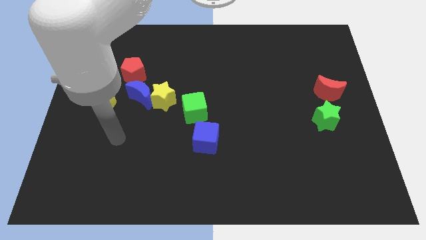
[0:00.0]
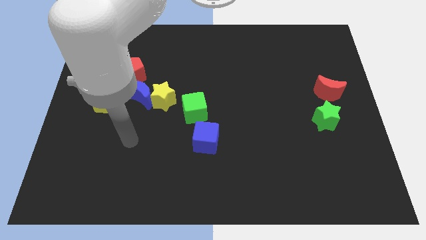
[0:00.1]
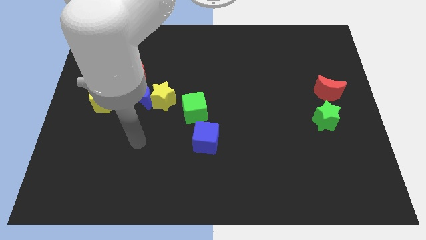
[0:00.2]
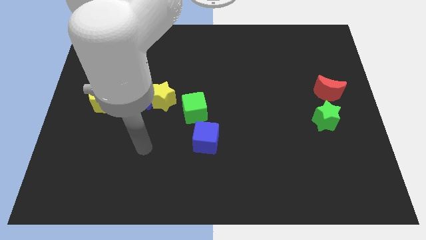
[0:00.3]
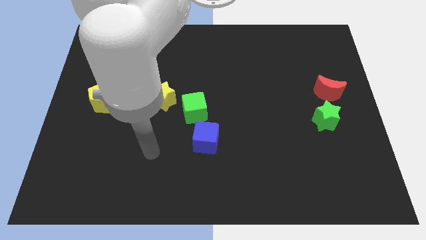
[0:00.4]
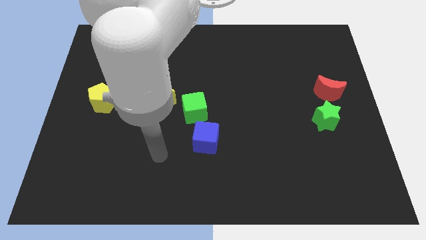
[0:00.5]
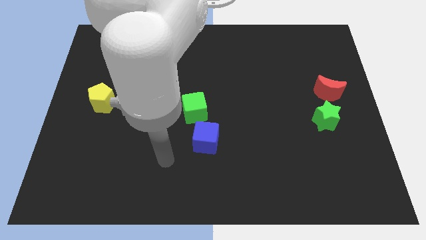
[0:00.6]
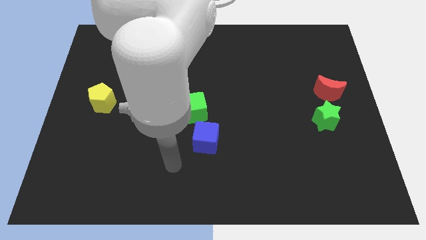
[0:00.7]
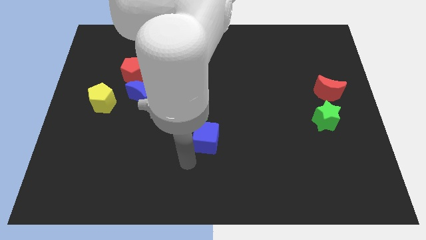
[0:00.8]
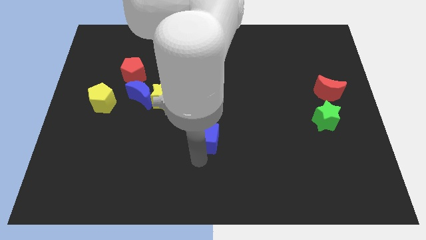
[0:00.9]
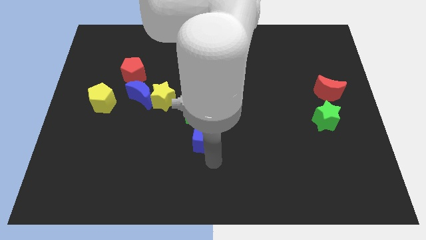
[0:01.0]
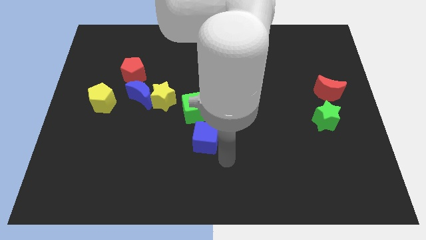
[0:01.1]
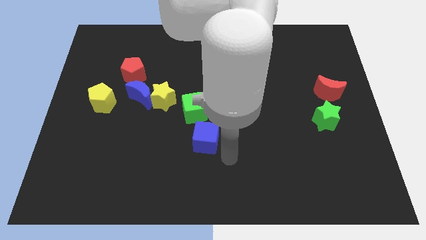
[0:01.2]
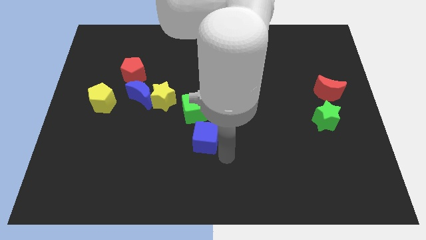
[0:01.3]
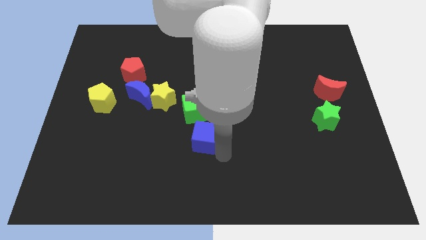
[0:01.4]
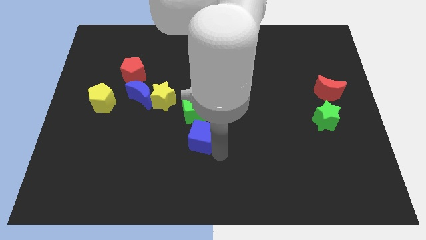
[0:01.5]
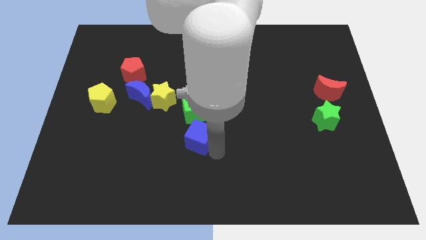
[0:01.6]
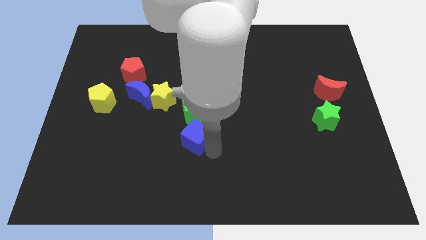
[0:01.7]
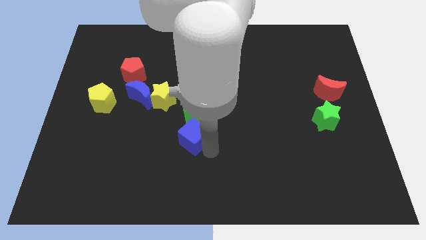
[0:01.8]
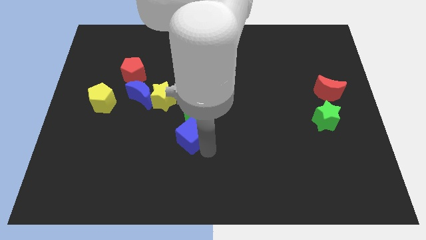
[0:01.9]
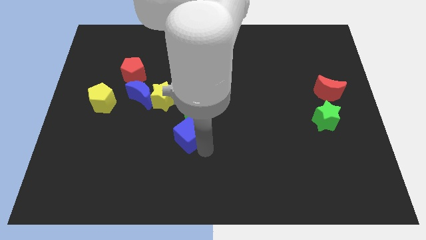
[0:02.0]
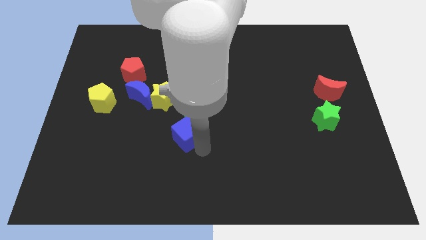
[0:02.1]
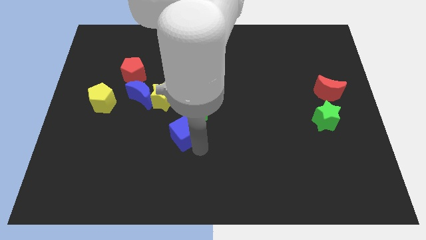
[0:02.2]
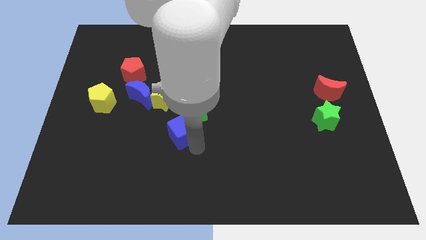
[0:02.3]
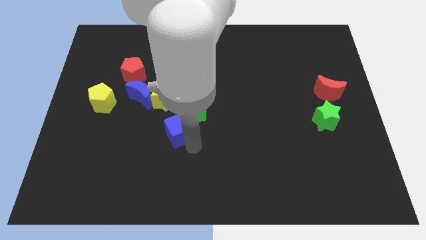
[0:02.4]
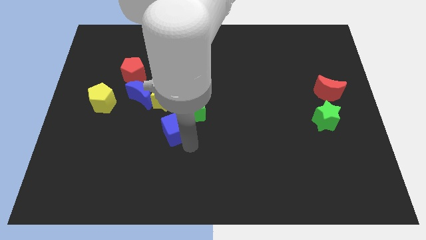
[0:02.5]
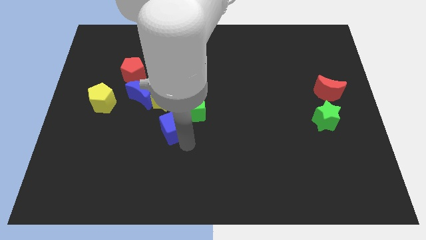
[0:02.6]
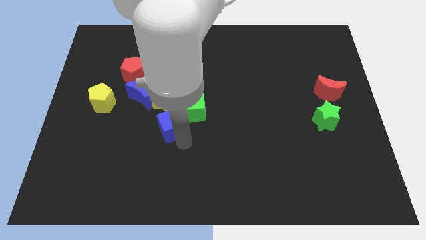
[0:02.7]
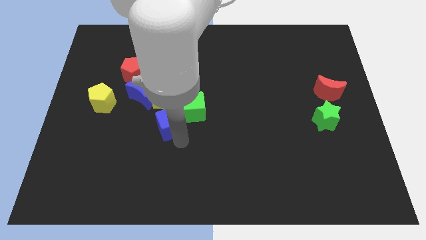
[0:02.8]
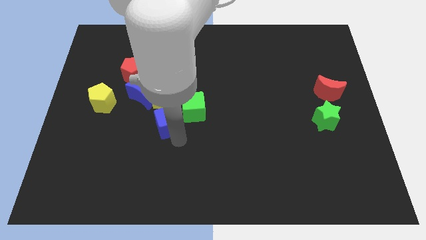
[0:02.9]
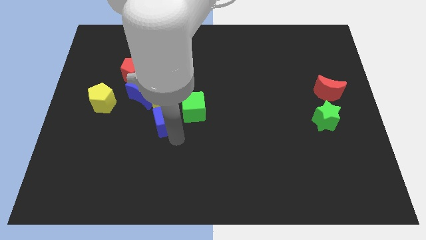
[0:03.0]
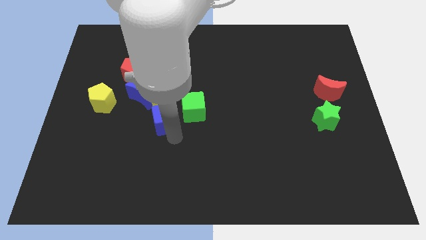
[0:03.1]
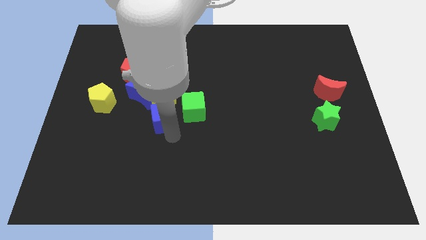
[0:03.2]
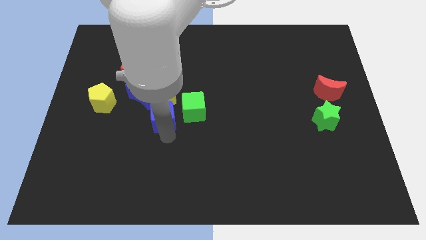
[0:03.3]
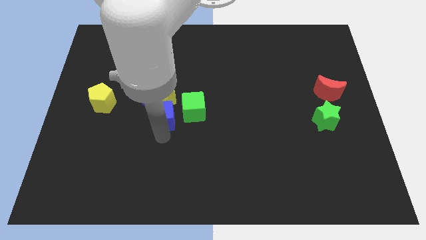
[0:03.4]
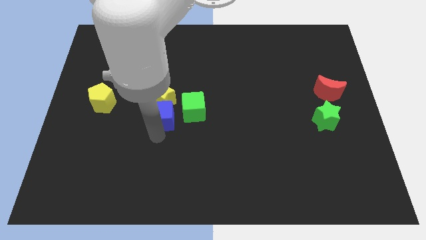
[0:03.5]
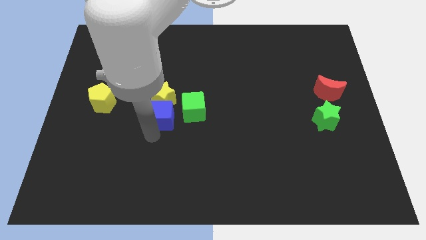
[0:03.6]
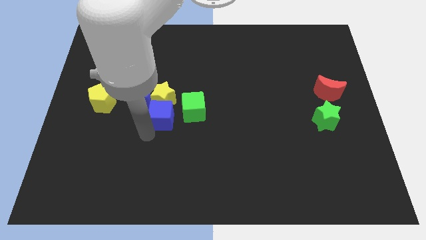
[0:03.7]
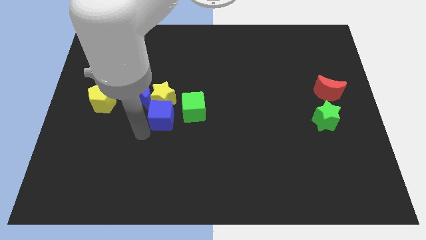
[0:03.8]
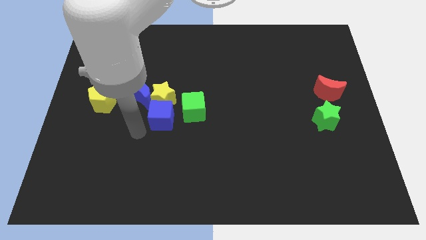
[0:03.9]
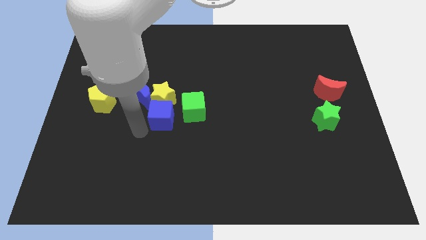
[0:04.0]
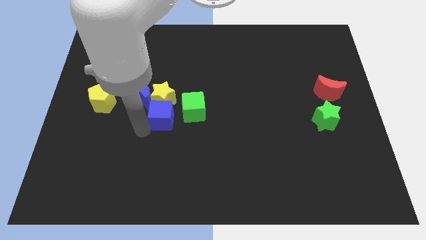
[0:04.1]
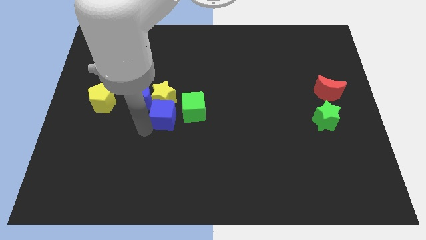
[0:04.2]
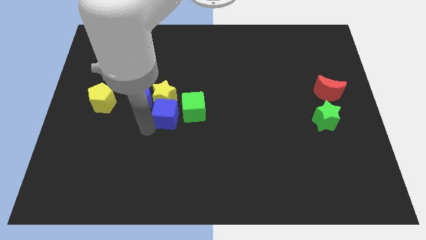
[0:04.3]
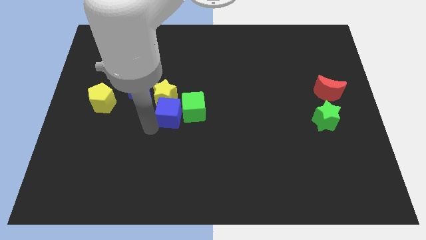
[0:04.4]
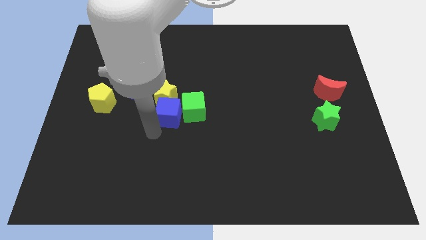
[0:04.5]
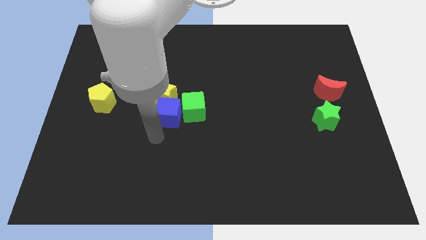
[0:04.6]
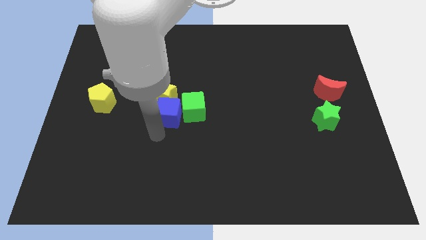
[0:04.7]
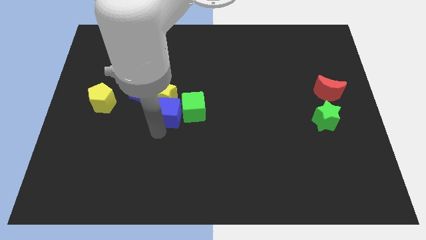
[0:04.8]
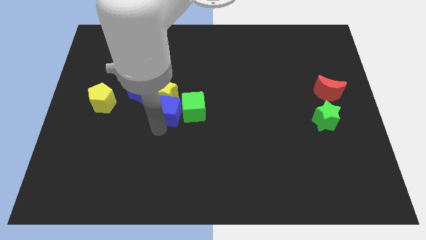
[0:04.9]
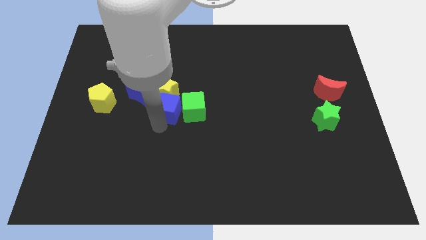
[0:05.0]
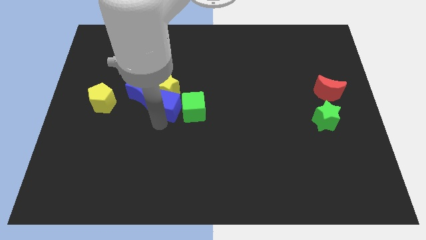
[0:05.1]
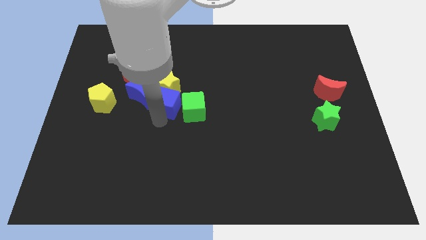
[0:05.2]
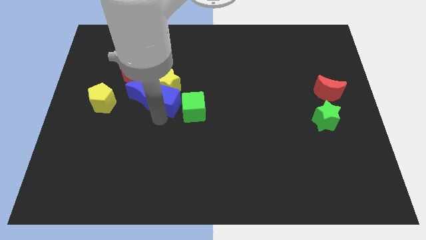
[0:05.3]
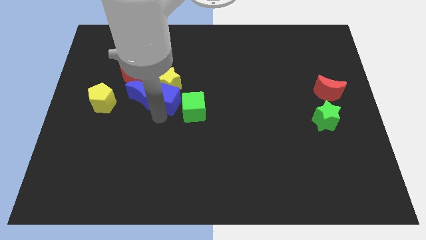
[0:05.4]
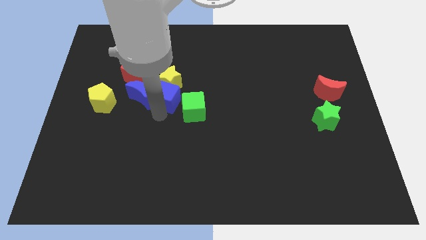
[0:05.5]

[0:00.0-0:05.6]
slide the blue cube to the top right side of the blue moon

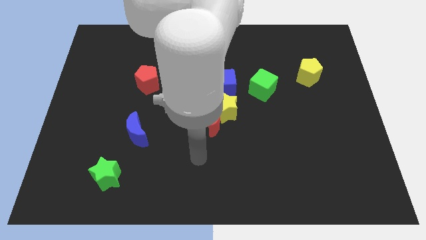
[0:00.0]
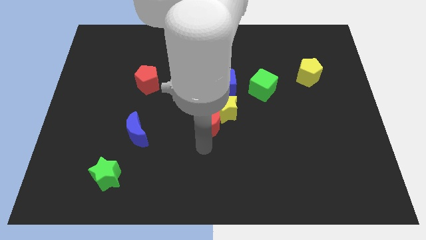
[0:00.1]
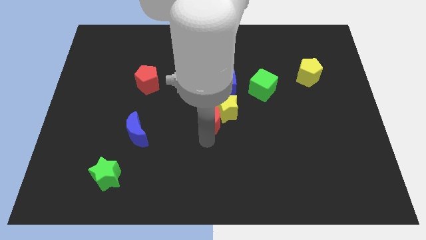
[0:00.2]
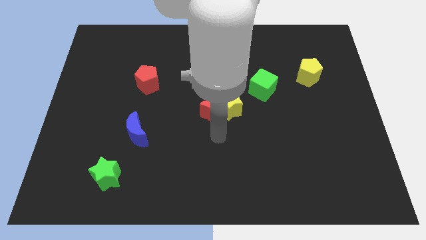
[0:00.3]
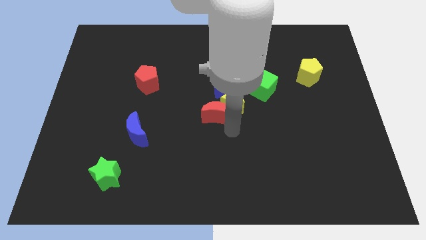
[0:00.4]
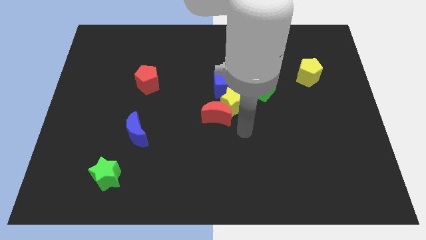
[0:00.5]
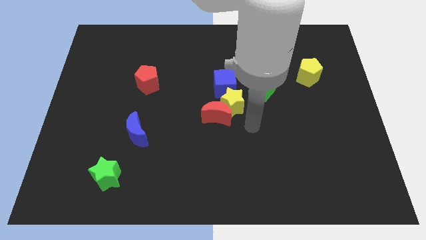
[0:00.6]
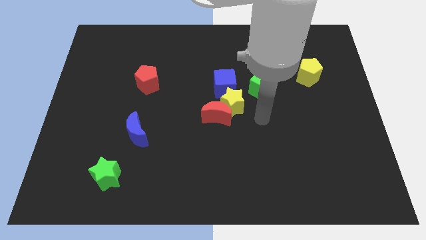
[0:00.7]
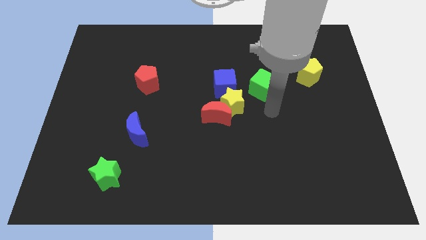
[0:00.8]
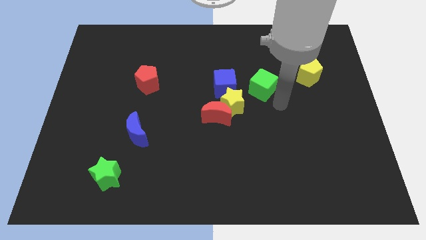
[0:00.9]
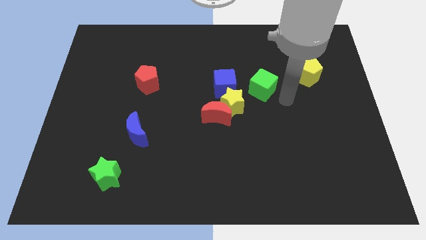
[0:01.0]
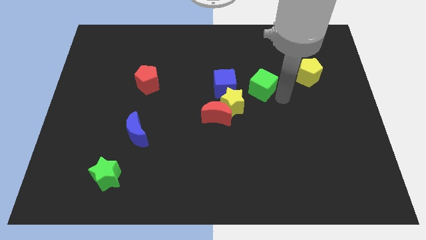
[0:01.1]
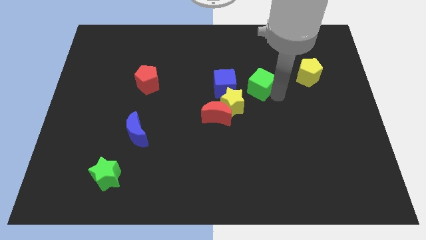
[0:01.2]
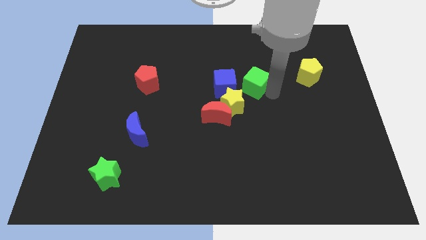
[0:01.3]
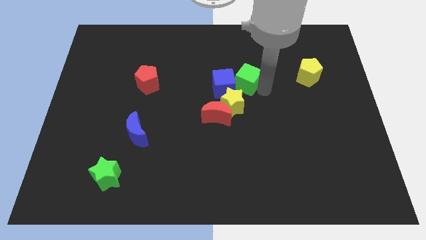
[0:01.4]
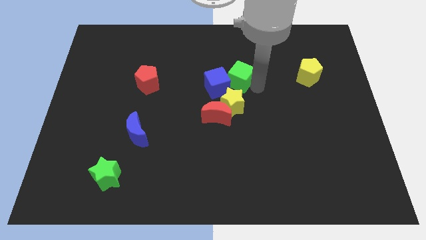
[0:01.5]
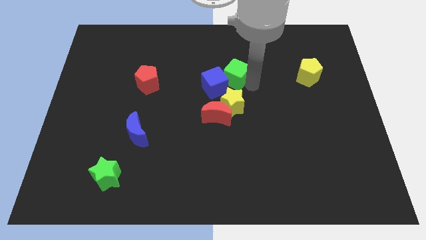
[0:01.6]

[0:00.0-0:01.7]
put the green cube to the top side of the red moon

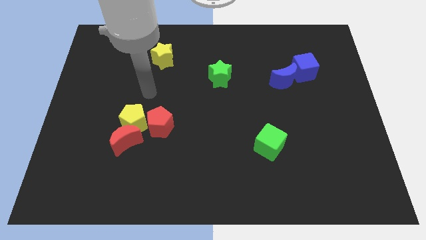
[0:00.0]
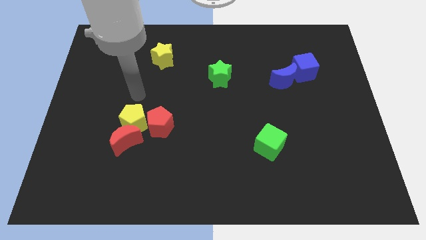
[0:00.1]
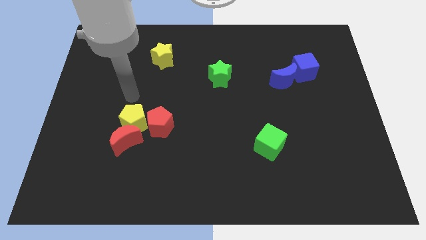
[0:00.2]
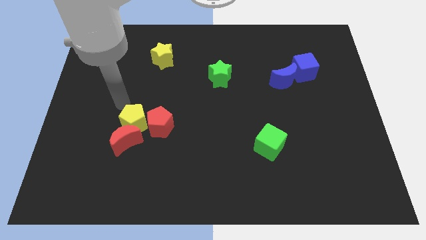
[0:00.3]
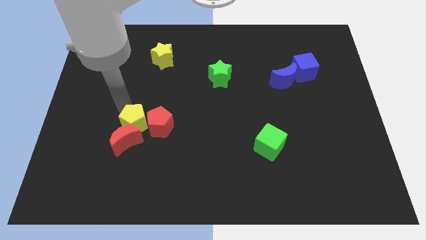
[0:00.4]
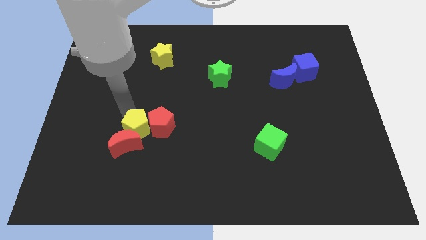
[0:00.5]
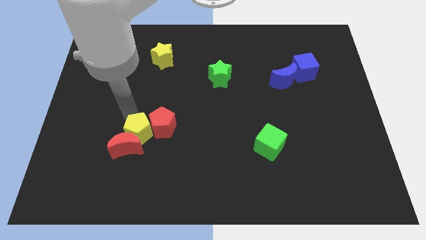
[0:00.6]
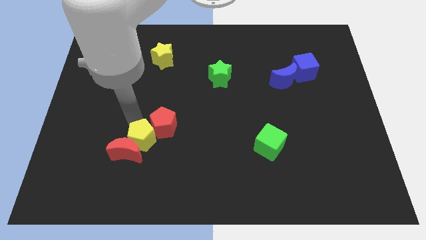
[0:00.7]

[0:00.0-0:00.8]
slide the yellow pentagon to the bottom of the red pentagon
